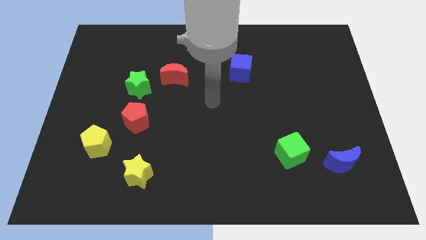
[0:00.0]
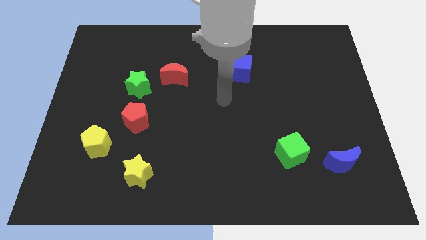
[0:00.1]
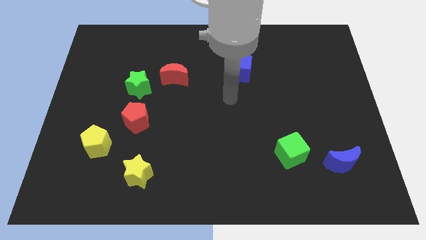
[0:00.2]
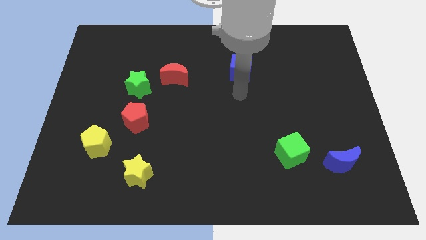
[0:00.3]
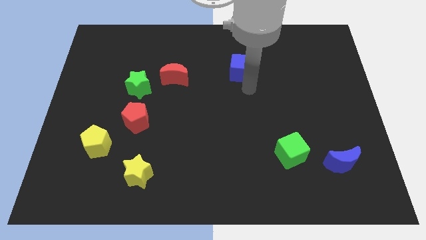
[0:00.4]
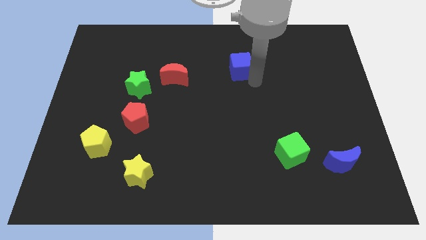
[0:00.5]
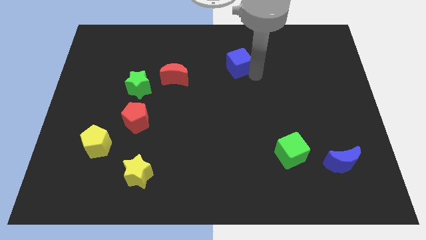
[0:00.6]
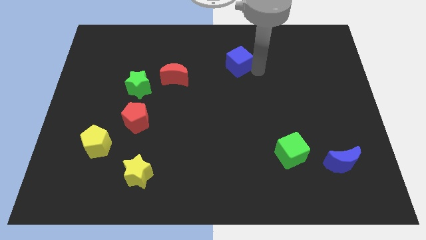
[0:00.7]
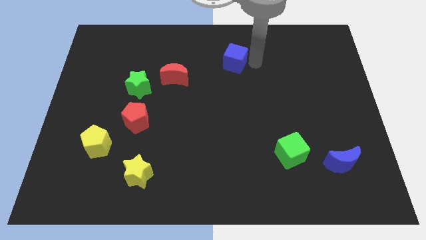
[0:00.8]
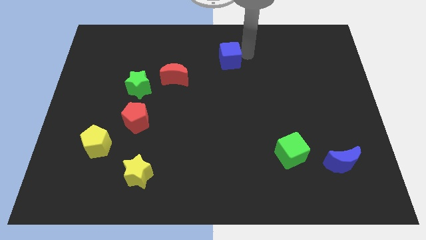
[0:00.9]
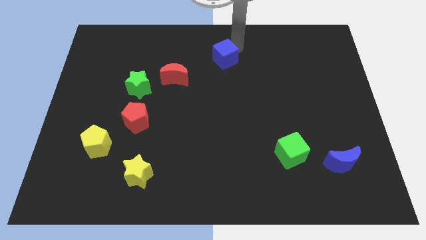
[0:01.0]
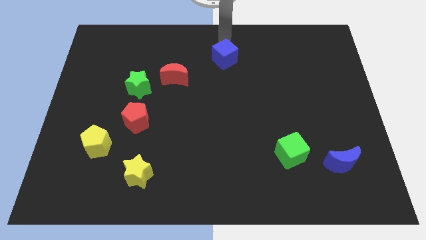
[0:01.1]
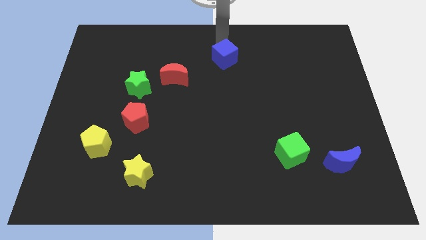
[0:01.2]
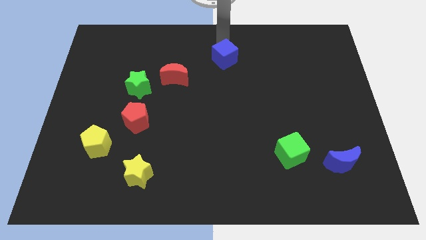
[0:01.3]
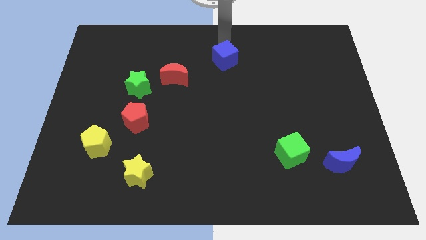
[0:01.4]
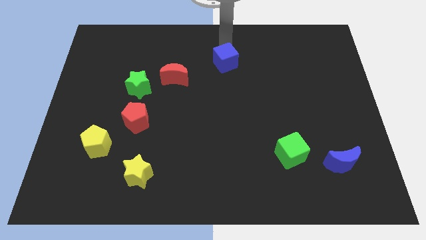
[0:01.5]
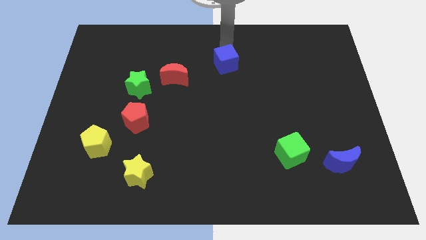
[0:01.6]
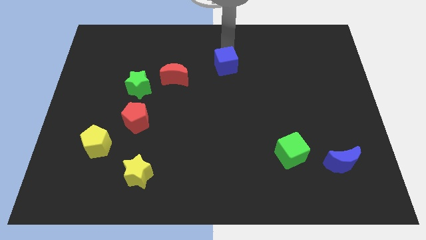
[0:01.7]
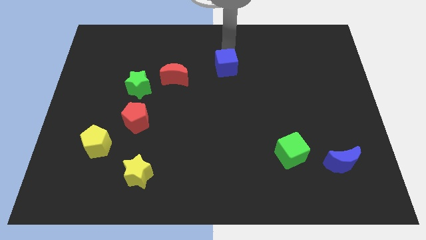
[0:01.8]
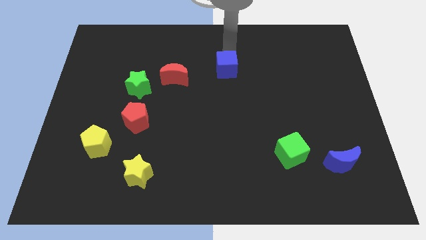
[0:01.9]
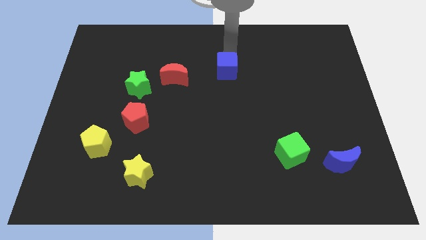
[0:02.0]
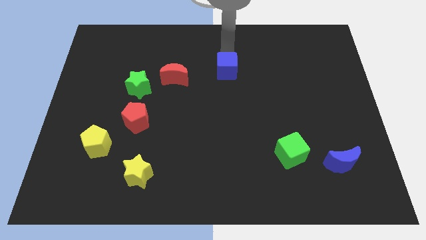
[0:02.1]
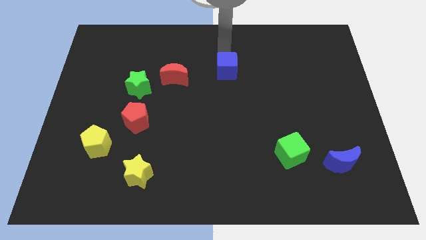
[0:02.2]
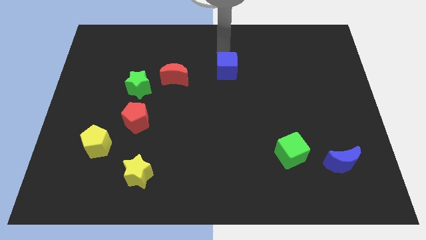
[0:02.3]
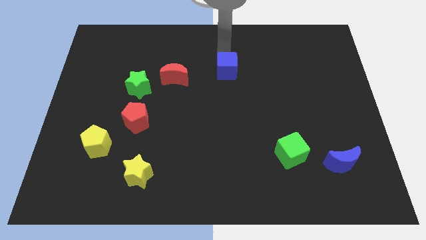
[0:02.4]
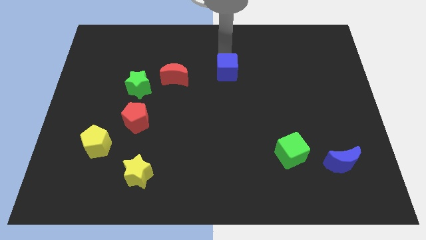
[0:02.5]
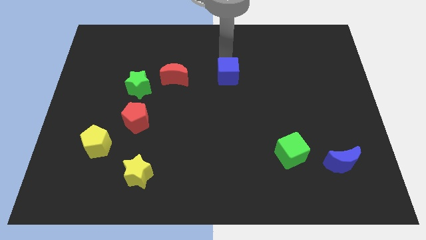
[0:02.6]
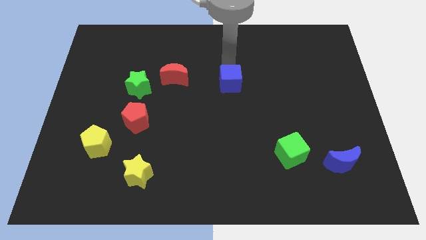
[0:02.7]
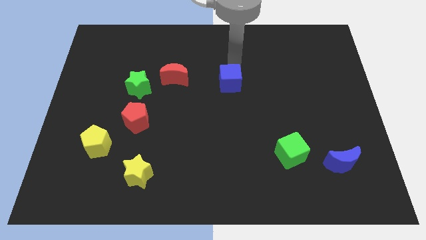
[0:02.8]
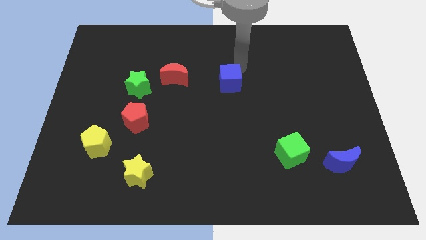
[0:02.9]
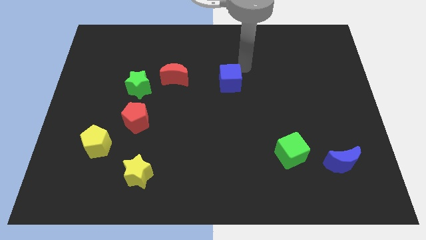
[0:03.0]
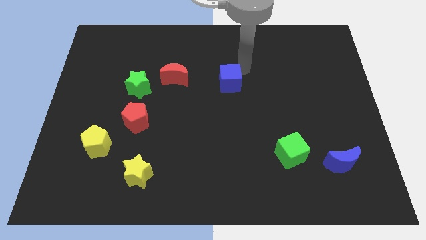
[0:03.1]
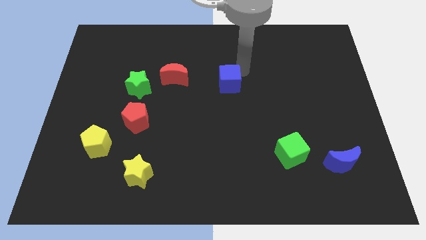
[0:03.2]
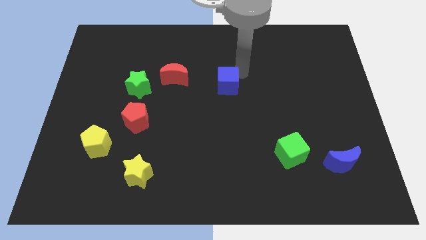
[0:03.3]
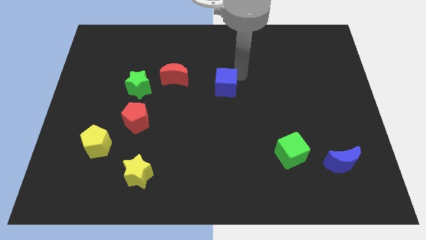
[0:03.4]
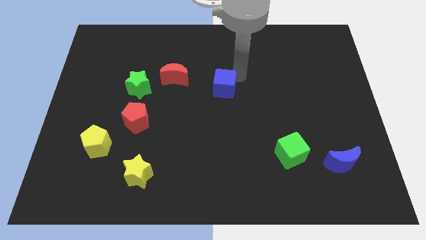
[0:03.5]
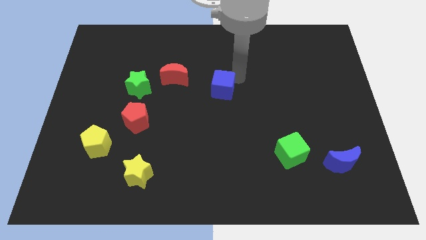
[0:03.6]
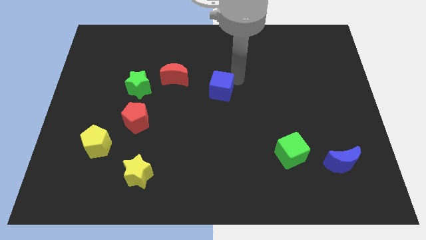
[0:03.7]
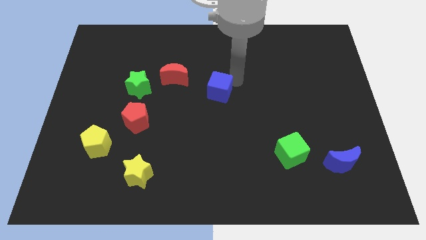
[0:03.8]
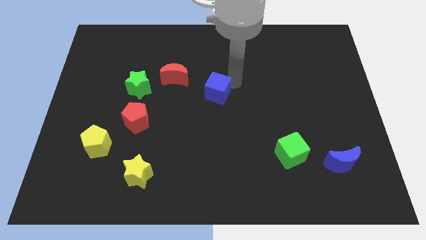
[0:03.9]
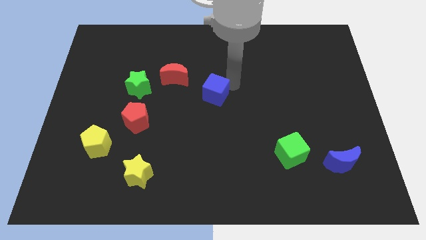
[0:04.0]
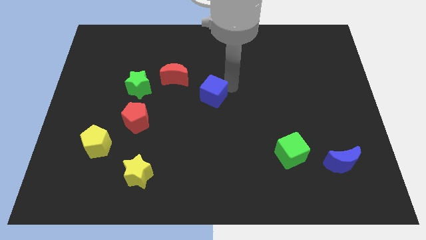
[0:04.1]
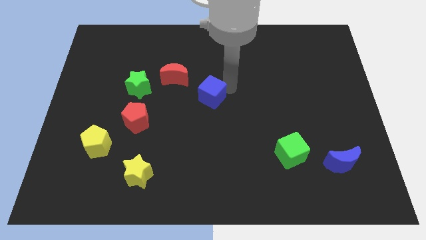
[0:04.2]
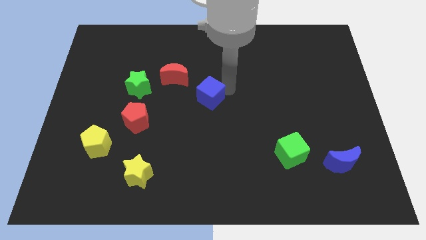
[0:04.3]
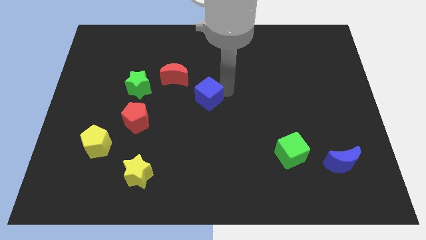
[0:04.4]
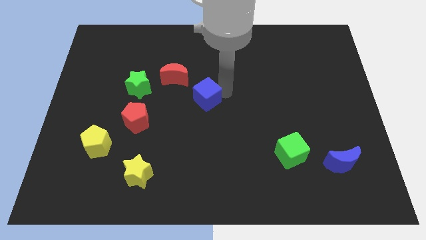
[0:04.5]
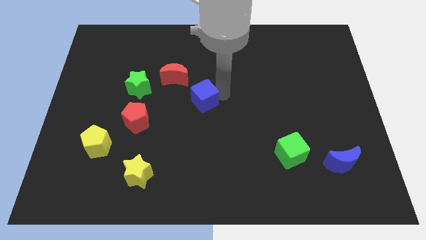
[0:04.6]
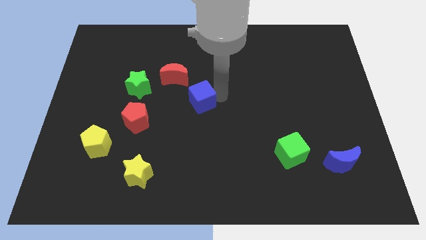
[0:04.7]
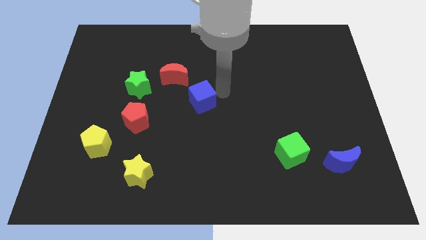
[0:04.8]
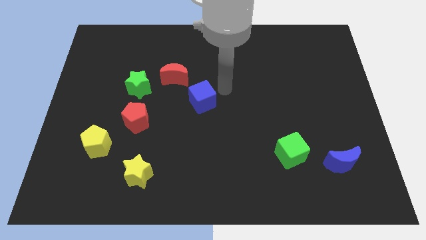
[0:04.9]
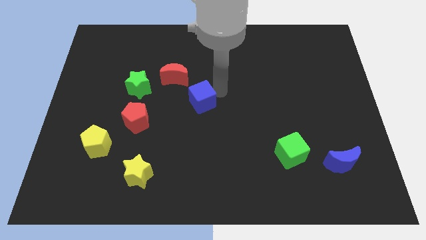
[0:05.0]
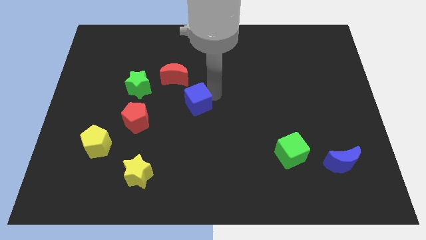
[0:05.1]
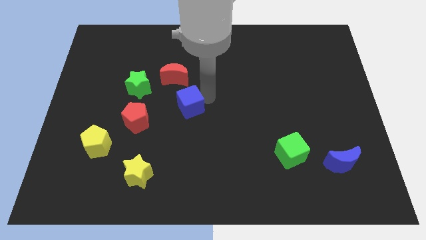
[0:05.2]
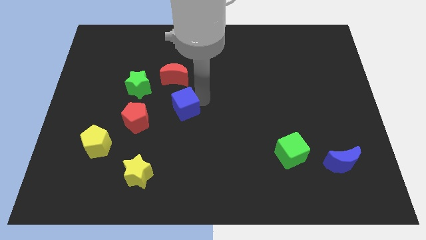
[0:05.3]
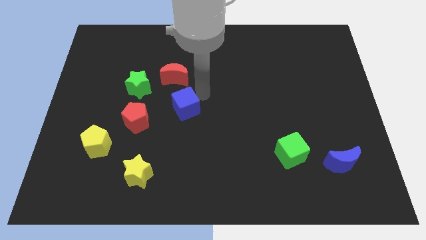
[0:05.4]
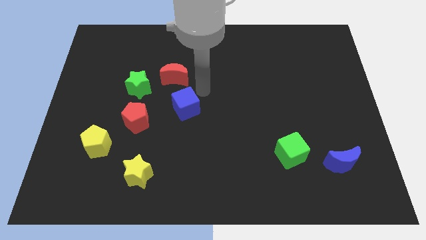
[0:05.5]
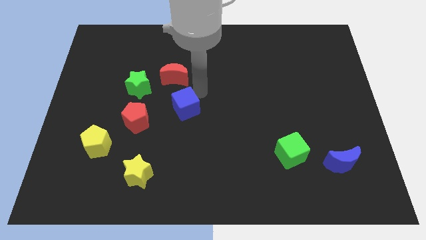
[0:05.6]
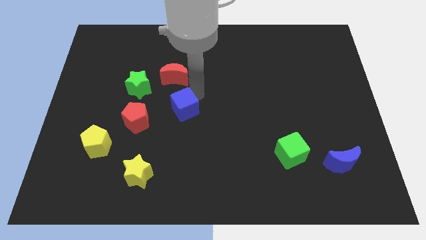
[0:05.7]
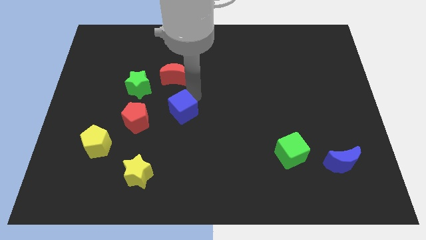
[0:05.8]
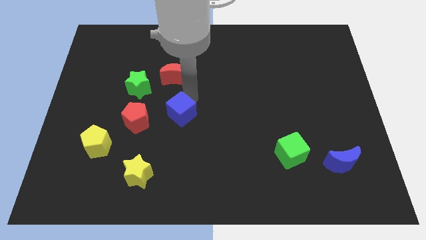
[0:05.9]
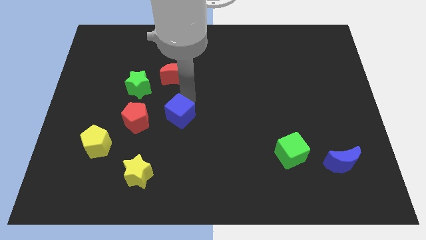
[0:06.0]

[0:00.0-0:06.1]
move the blue cube downwards and left

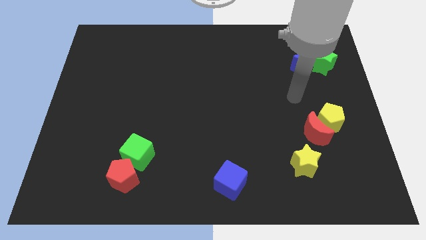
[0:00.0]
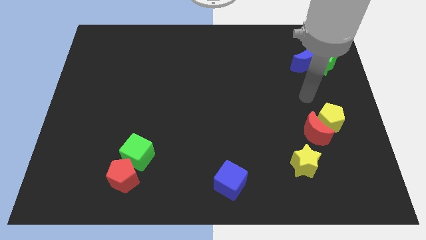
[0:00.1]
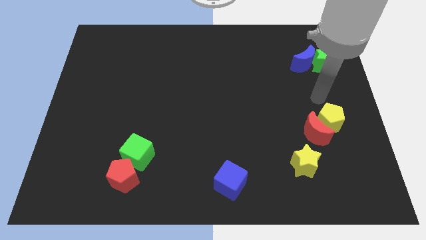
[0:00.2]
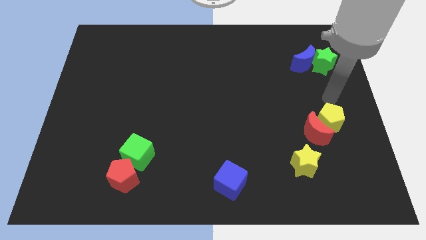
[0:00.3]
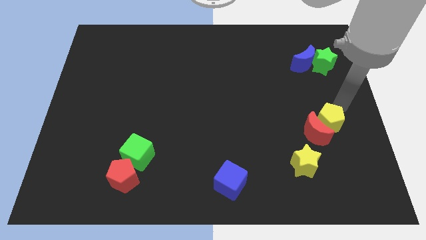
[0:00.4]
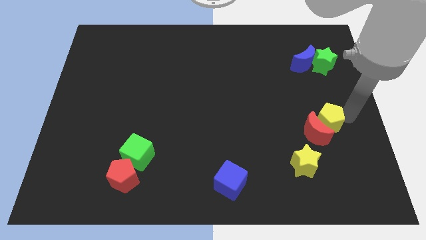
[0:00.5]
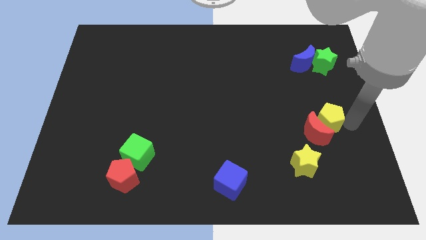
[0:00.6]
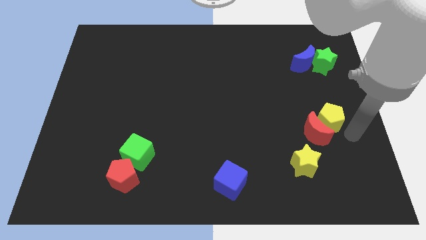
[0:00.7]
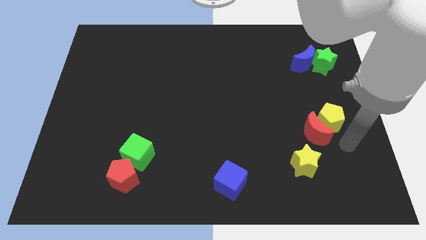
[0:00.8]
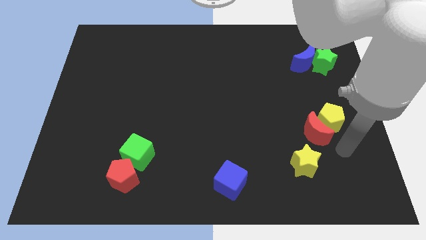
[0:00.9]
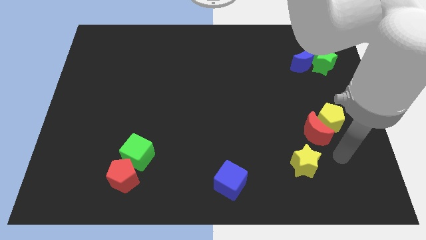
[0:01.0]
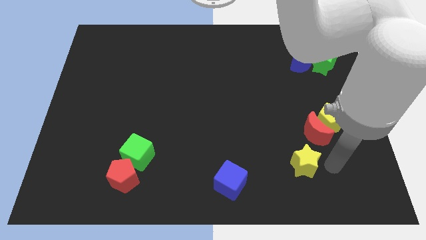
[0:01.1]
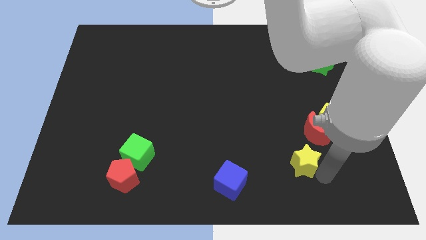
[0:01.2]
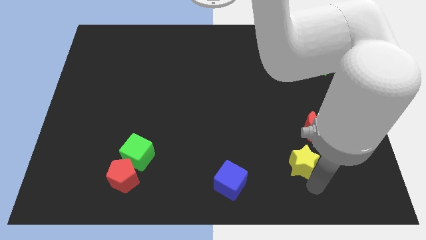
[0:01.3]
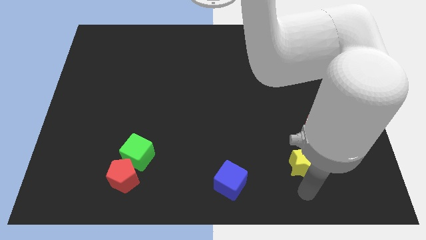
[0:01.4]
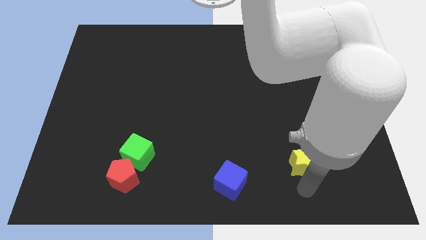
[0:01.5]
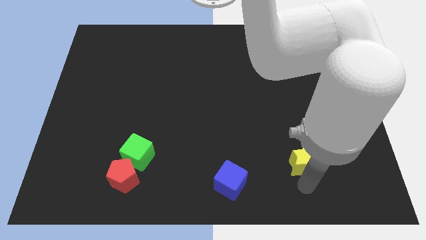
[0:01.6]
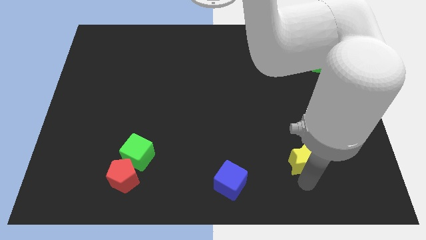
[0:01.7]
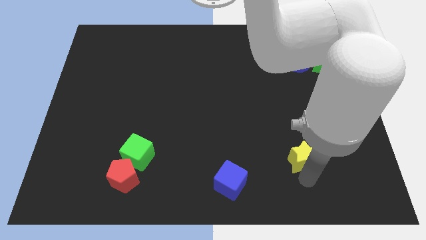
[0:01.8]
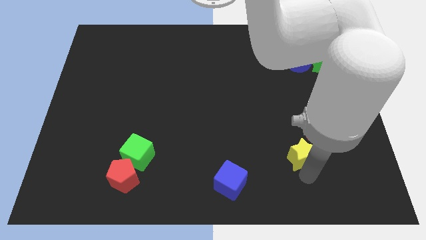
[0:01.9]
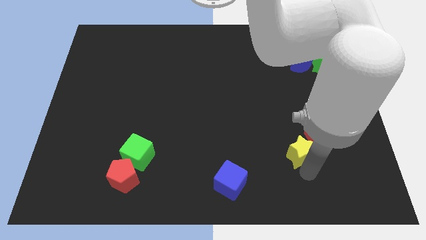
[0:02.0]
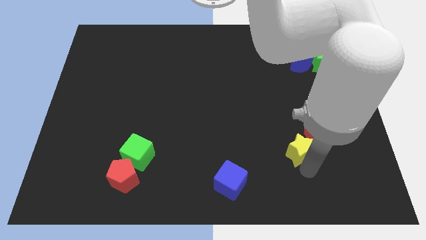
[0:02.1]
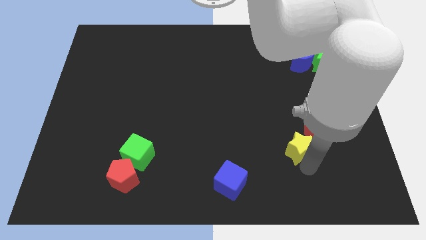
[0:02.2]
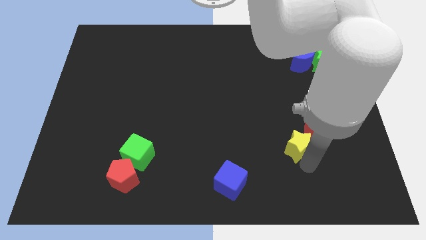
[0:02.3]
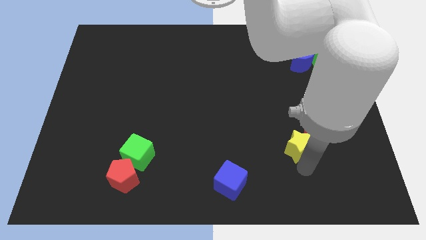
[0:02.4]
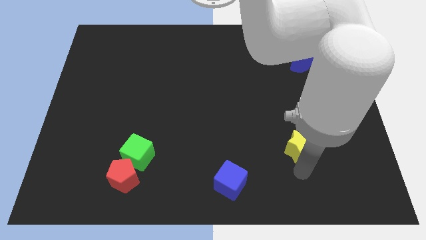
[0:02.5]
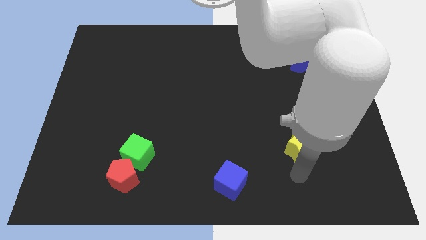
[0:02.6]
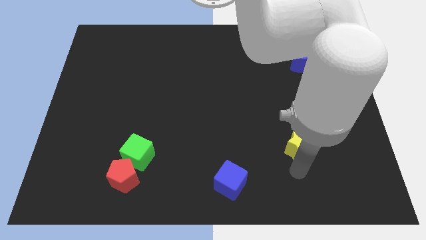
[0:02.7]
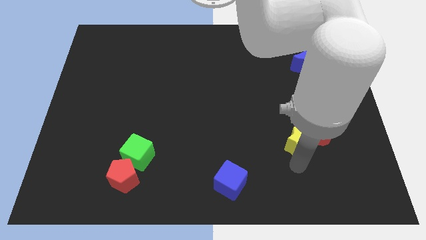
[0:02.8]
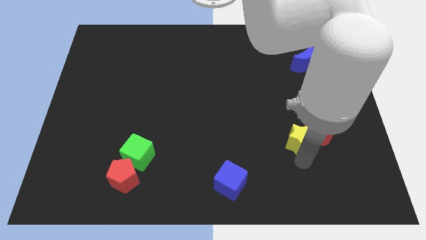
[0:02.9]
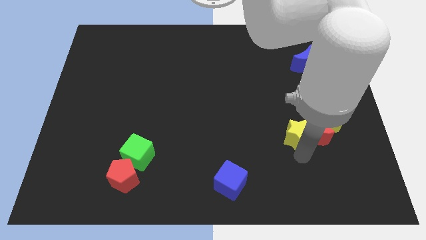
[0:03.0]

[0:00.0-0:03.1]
push the yellow star a little up
